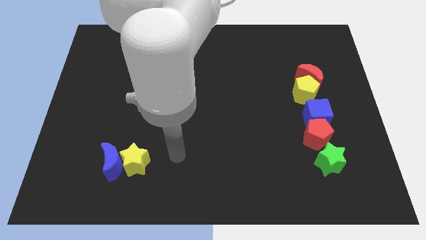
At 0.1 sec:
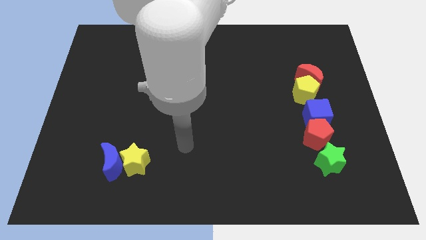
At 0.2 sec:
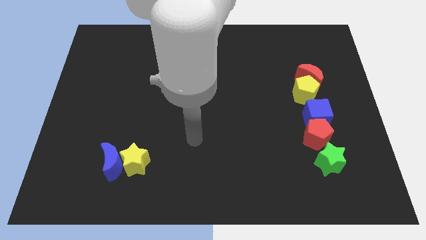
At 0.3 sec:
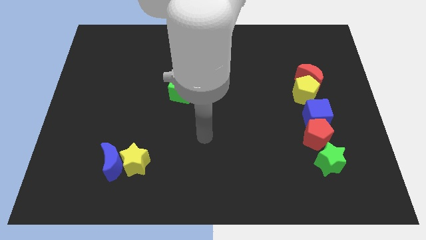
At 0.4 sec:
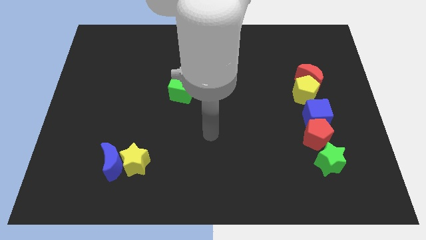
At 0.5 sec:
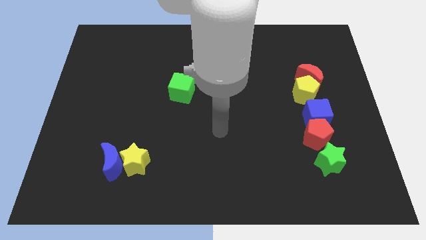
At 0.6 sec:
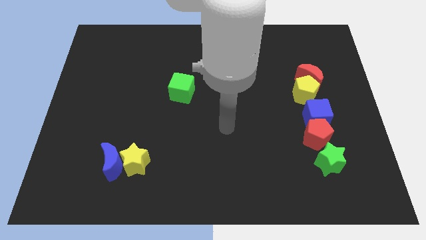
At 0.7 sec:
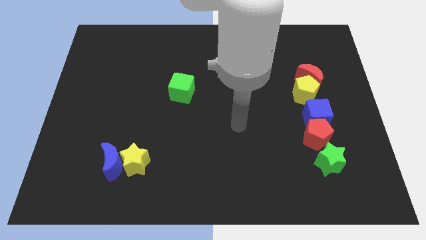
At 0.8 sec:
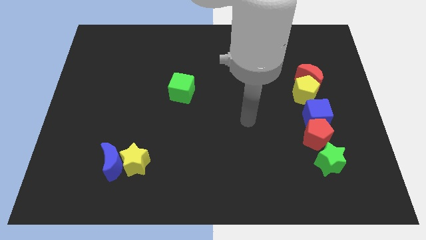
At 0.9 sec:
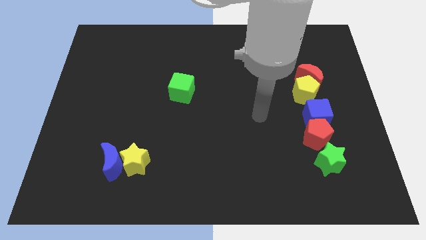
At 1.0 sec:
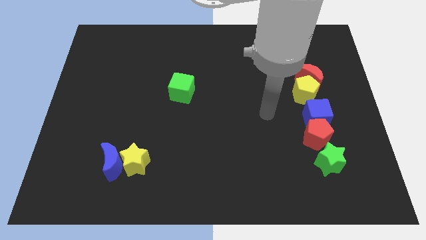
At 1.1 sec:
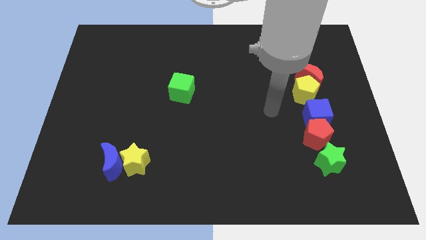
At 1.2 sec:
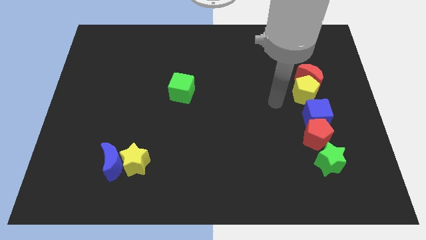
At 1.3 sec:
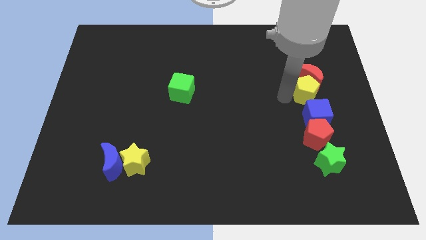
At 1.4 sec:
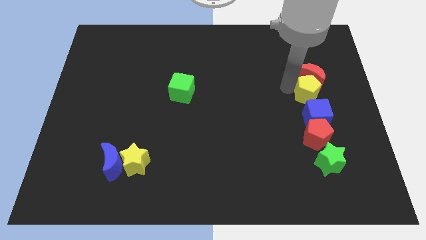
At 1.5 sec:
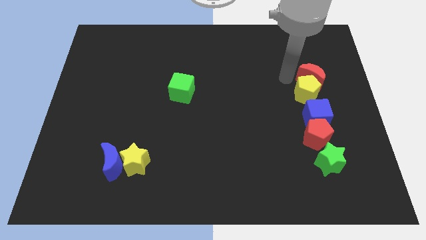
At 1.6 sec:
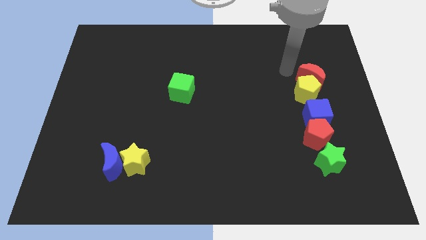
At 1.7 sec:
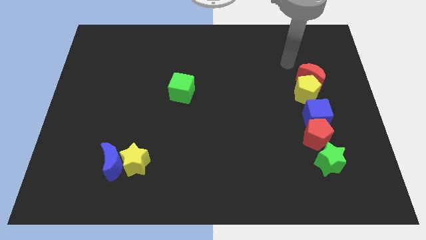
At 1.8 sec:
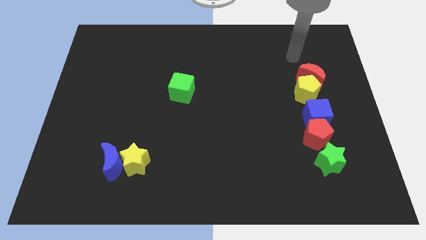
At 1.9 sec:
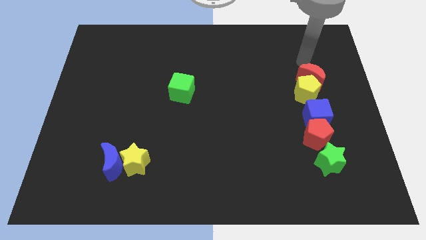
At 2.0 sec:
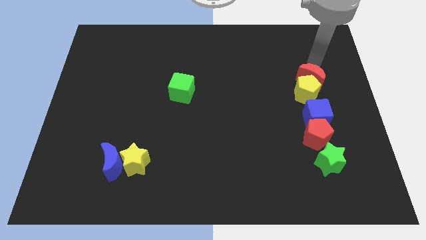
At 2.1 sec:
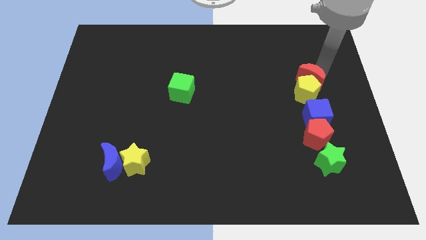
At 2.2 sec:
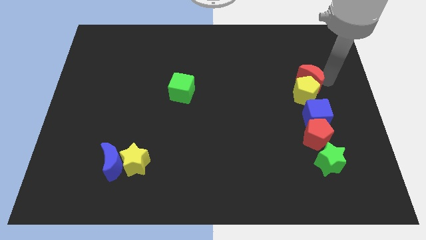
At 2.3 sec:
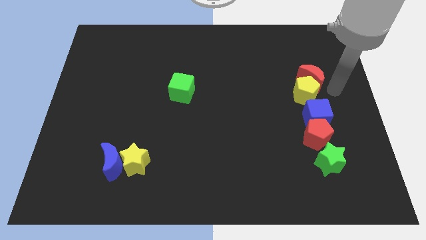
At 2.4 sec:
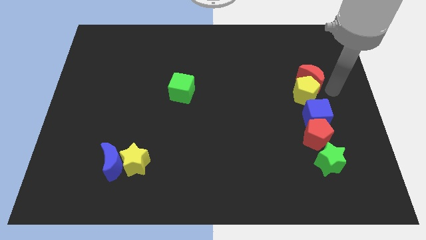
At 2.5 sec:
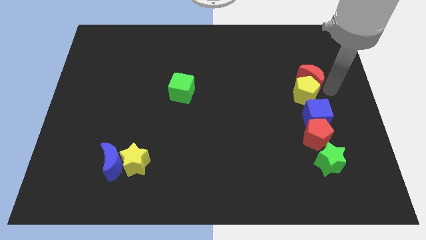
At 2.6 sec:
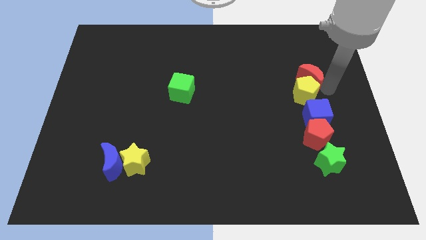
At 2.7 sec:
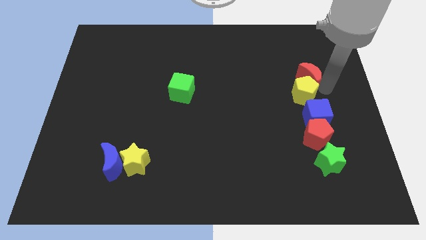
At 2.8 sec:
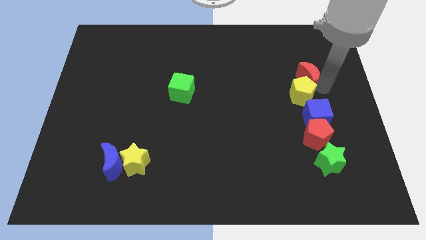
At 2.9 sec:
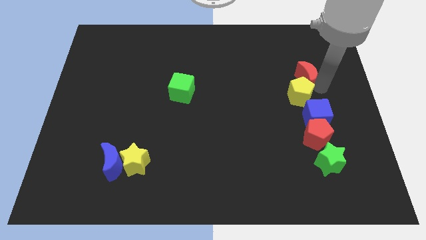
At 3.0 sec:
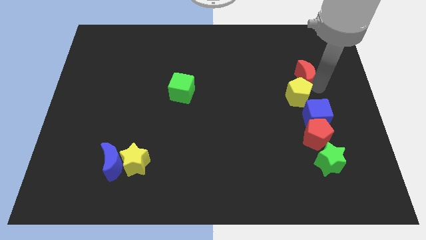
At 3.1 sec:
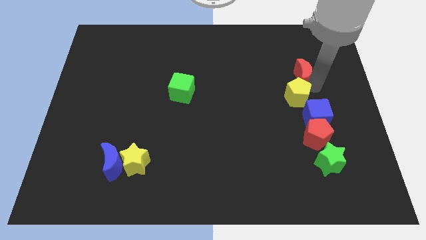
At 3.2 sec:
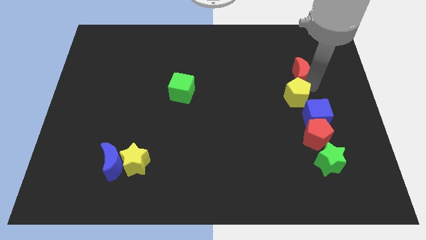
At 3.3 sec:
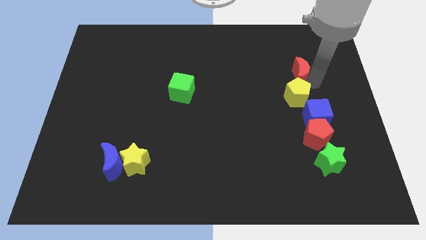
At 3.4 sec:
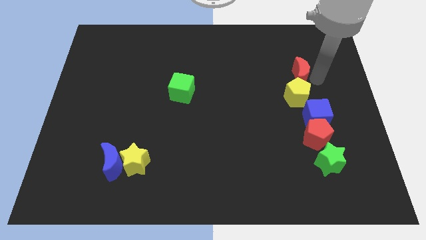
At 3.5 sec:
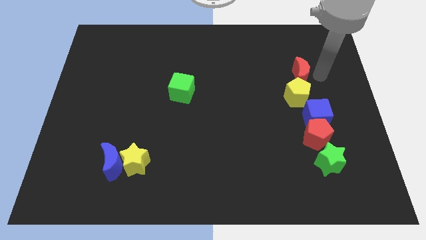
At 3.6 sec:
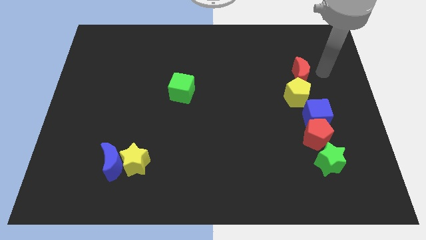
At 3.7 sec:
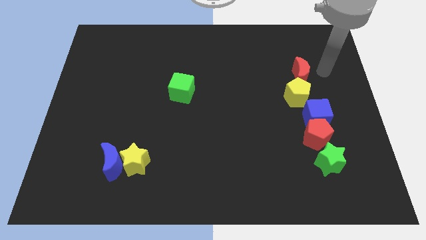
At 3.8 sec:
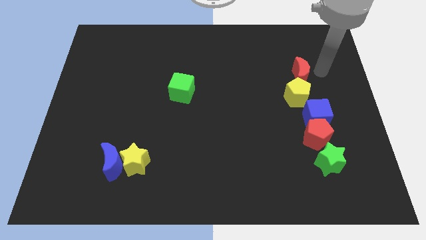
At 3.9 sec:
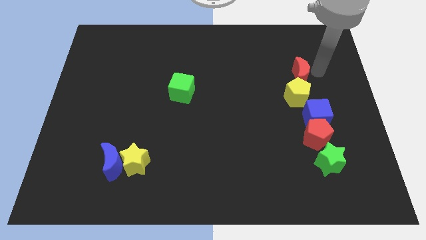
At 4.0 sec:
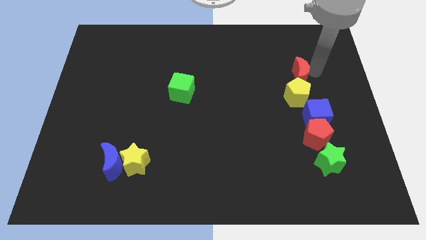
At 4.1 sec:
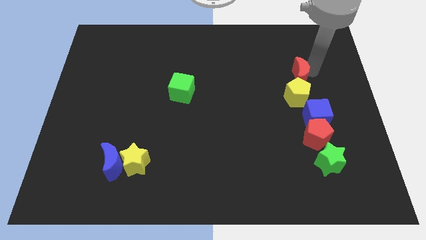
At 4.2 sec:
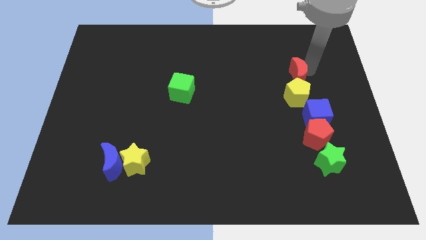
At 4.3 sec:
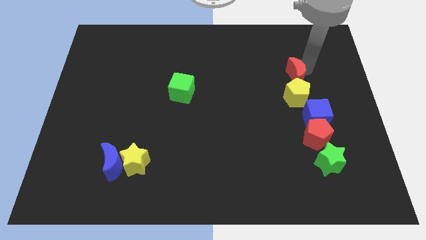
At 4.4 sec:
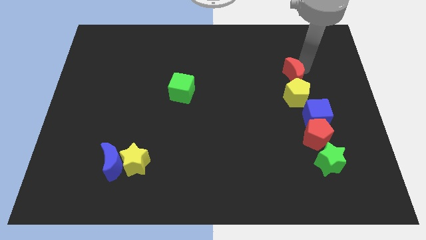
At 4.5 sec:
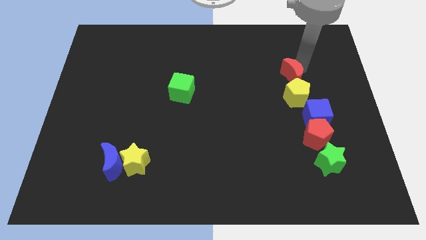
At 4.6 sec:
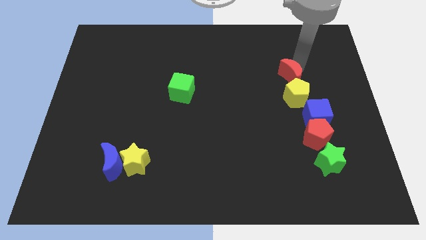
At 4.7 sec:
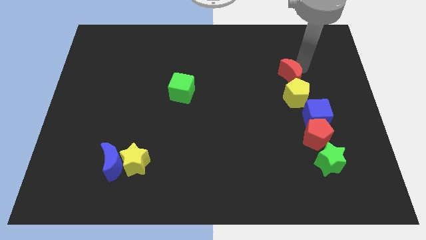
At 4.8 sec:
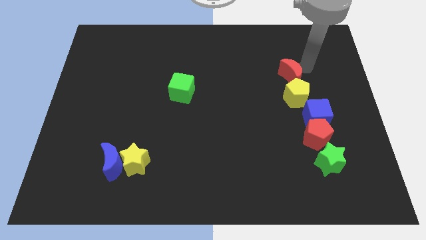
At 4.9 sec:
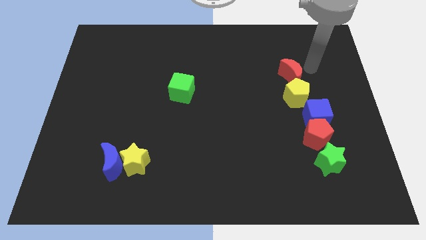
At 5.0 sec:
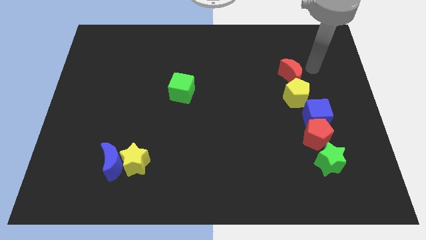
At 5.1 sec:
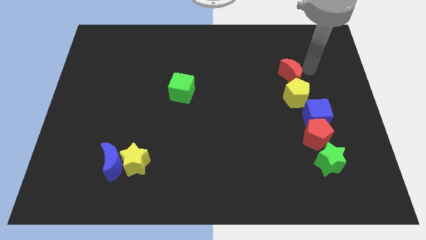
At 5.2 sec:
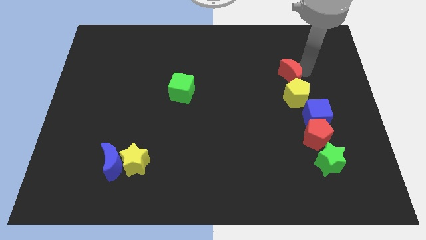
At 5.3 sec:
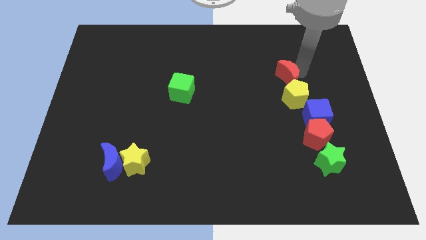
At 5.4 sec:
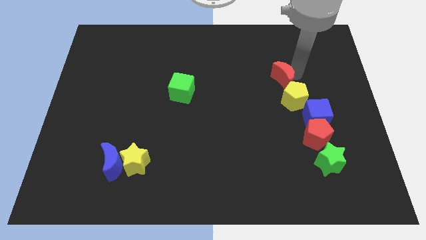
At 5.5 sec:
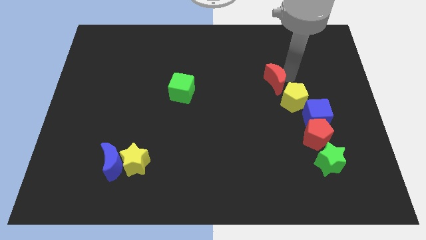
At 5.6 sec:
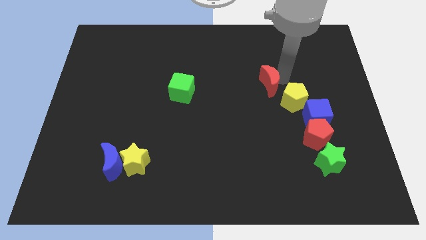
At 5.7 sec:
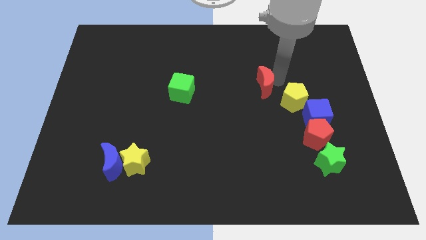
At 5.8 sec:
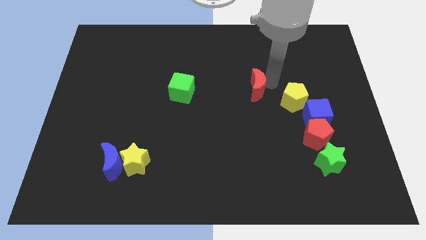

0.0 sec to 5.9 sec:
slide the red moon to the center of the board
